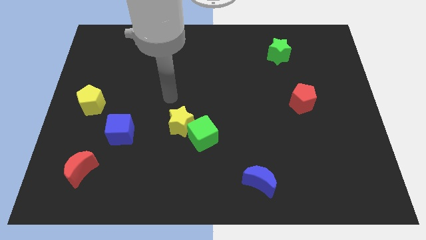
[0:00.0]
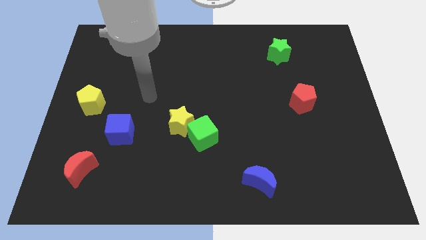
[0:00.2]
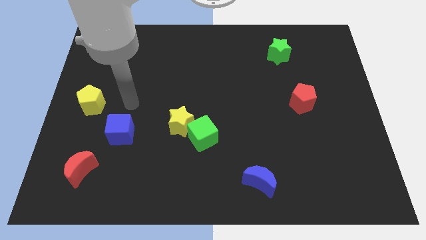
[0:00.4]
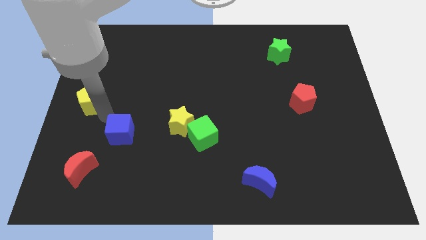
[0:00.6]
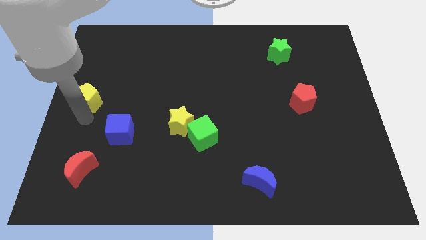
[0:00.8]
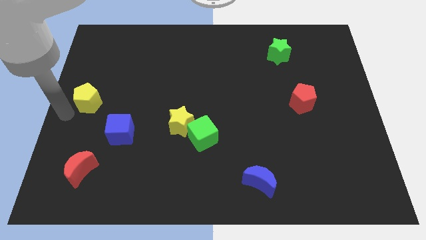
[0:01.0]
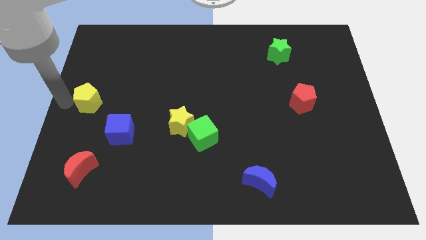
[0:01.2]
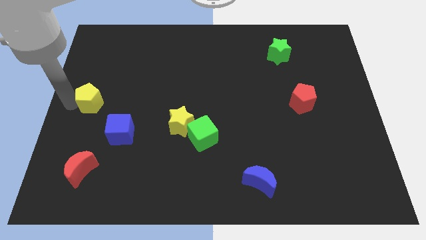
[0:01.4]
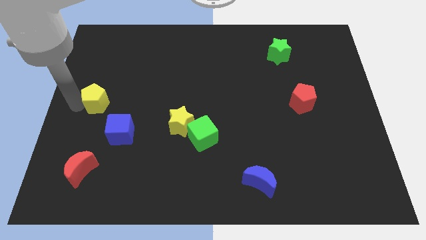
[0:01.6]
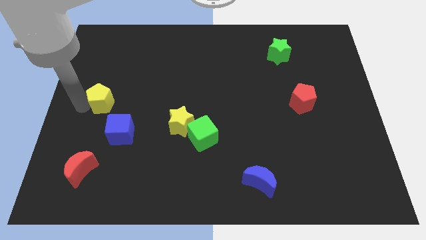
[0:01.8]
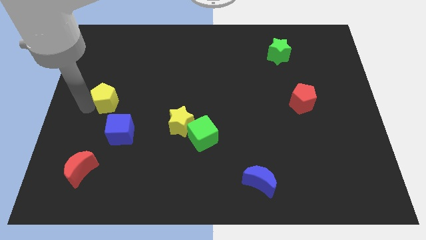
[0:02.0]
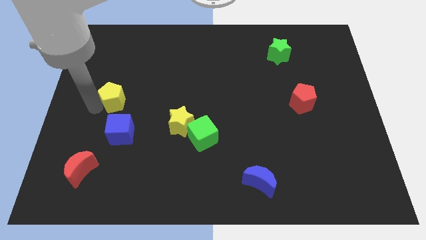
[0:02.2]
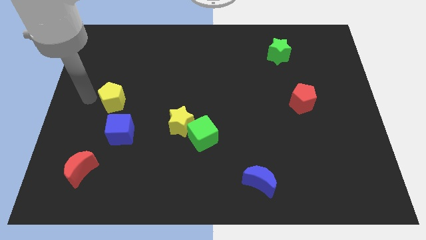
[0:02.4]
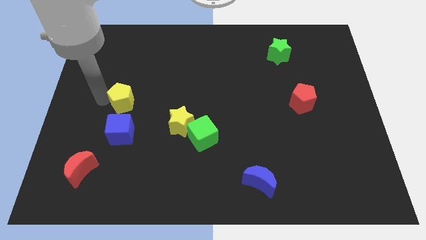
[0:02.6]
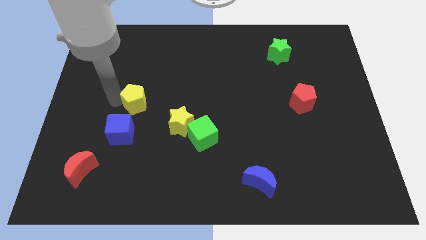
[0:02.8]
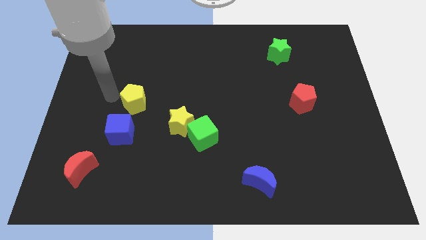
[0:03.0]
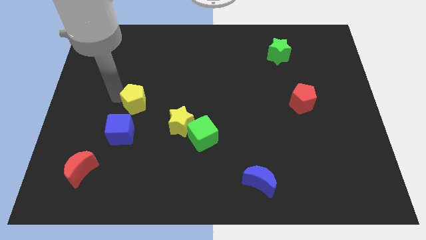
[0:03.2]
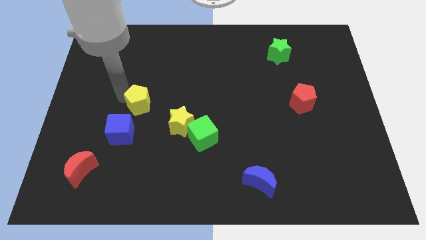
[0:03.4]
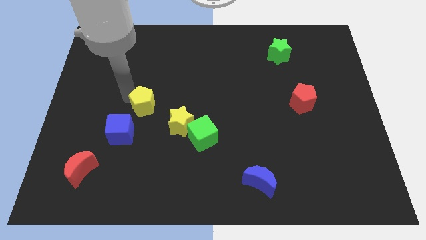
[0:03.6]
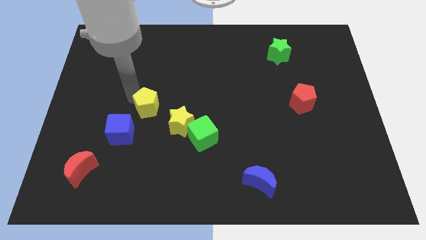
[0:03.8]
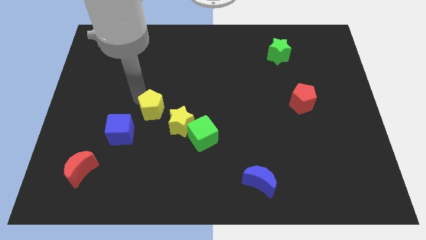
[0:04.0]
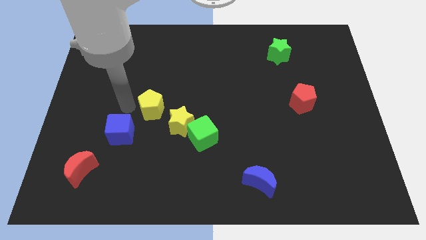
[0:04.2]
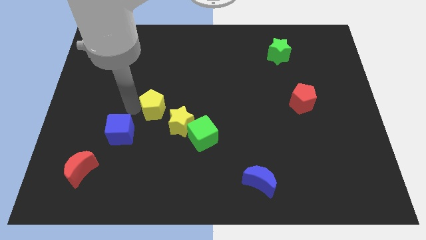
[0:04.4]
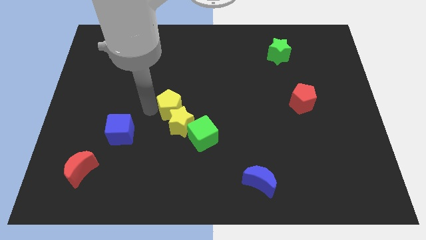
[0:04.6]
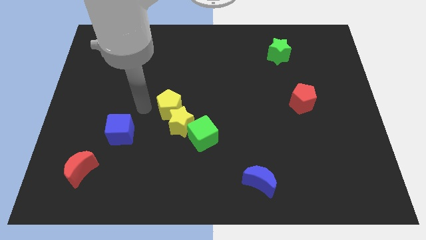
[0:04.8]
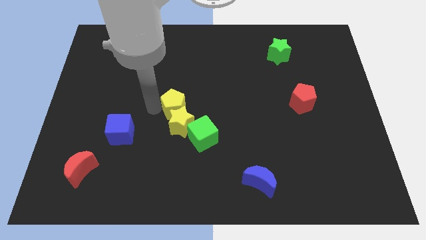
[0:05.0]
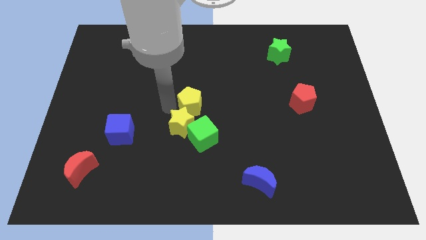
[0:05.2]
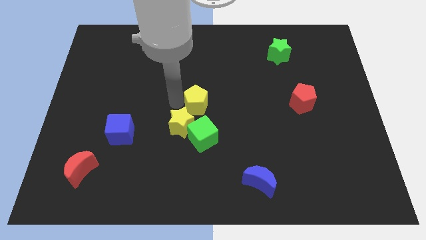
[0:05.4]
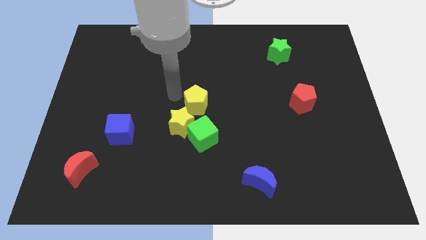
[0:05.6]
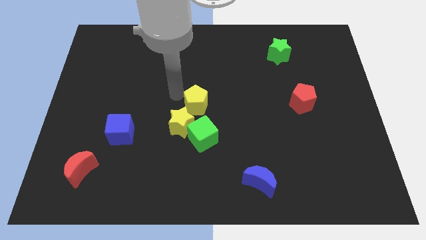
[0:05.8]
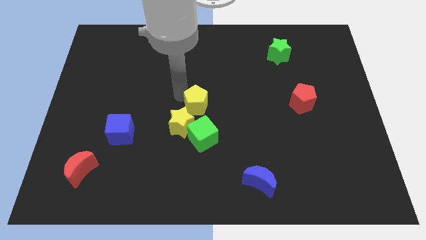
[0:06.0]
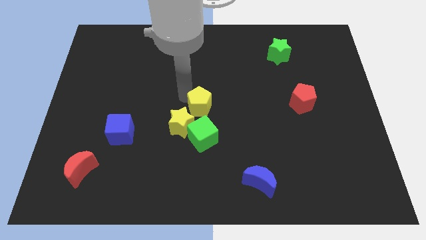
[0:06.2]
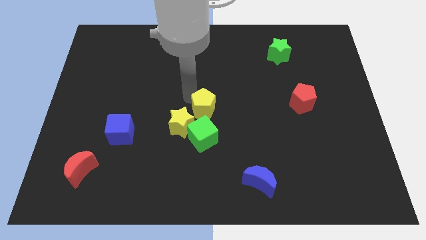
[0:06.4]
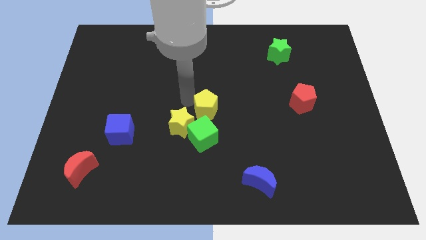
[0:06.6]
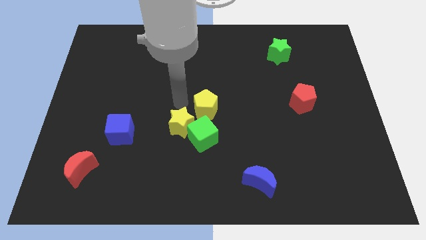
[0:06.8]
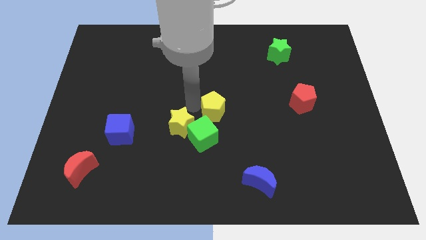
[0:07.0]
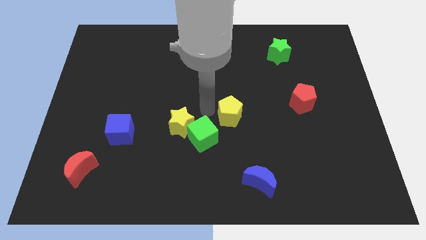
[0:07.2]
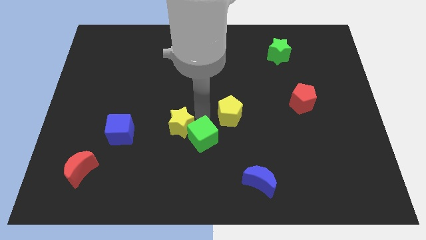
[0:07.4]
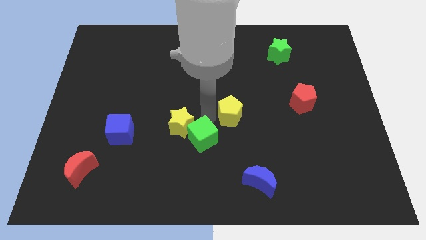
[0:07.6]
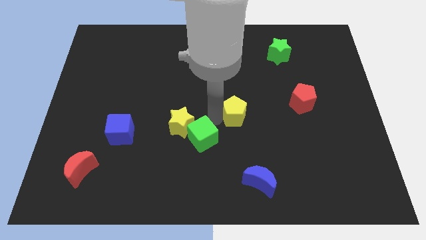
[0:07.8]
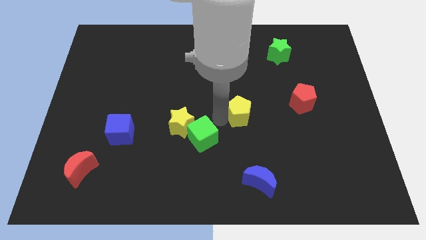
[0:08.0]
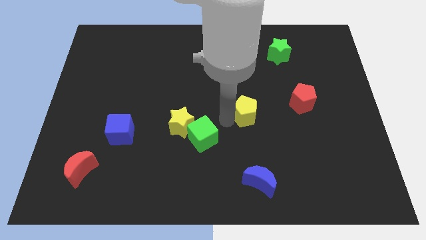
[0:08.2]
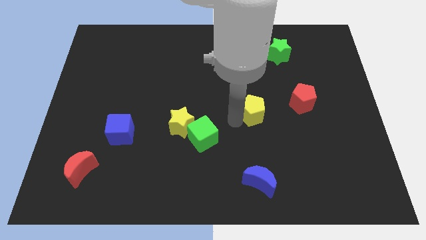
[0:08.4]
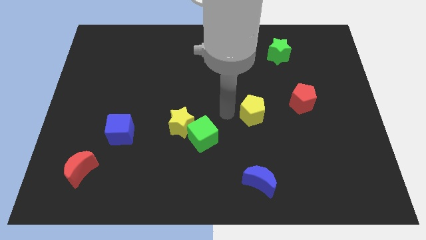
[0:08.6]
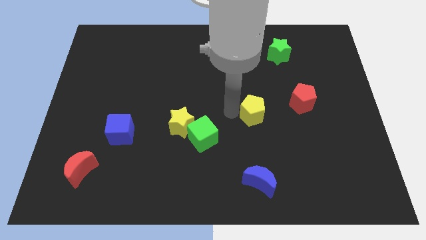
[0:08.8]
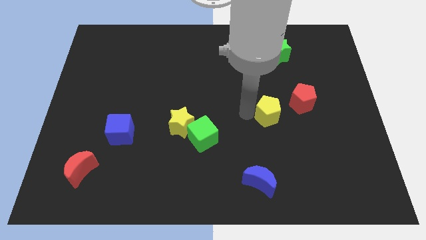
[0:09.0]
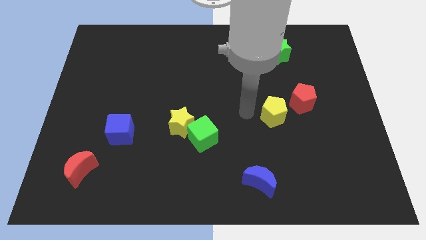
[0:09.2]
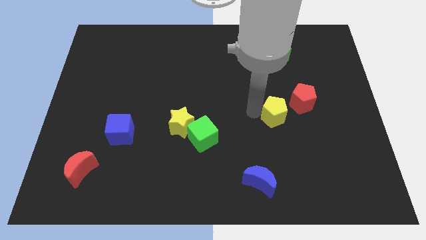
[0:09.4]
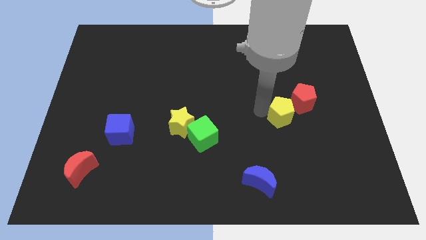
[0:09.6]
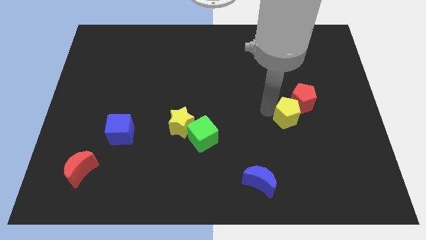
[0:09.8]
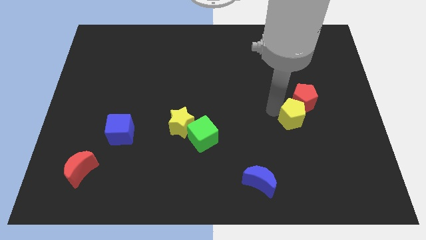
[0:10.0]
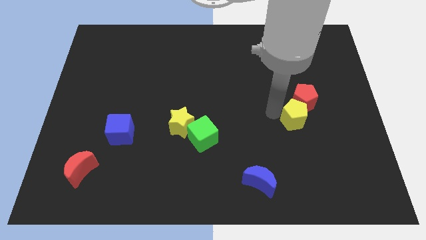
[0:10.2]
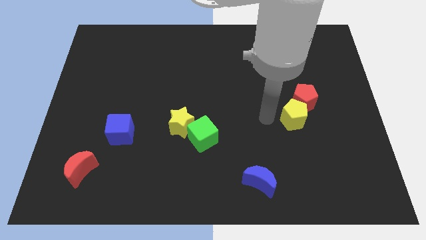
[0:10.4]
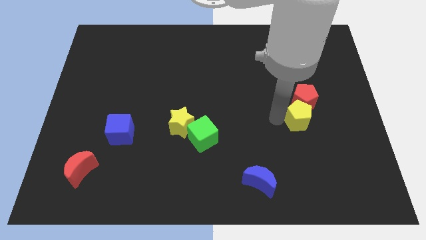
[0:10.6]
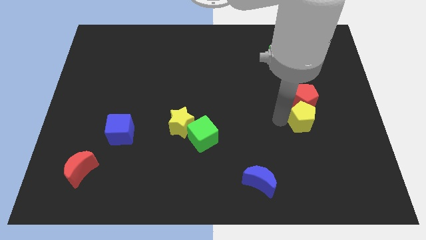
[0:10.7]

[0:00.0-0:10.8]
put the yellow pentagon diagonally down and to the right of the red pentagon

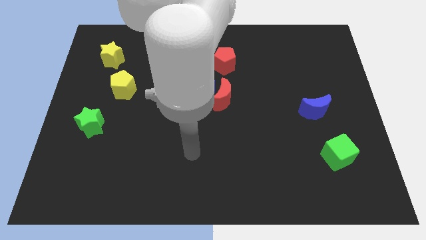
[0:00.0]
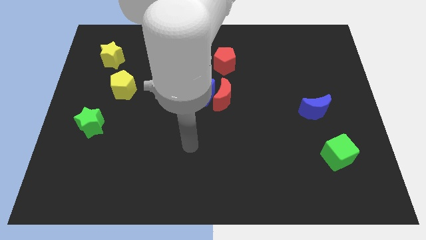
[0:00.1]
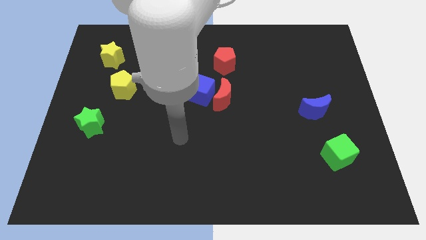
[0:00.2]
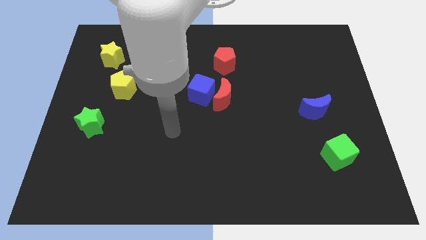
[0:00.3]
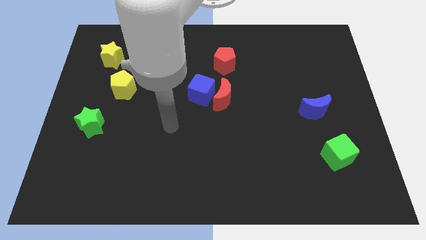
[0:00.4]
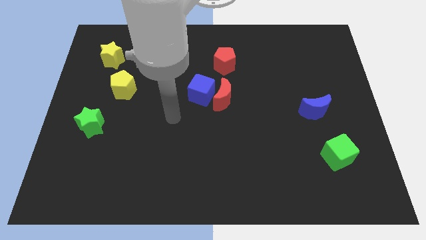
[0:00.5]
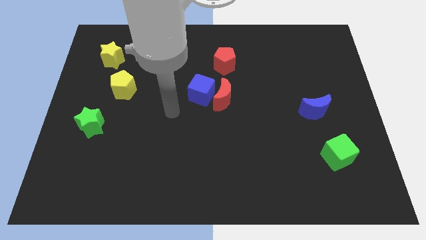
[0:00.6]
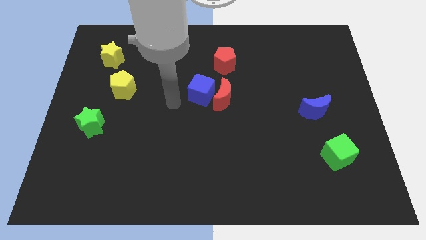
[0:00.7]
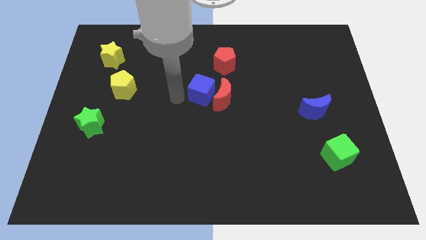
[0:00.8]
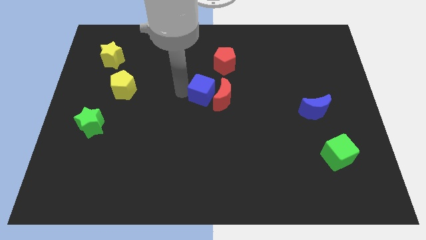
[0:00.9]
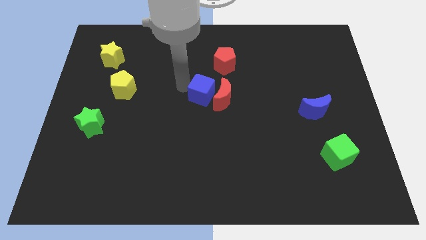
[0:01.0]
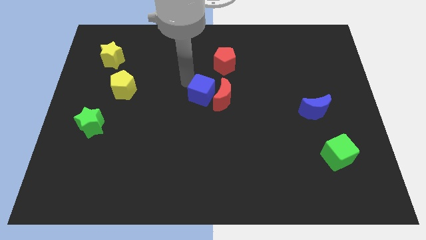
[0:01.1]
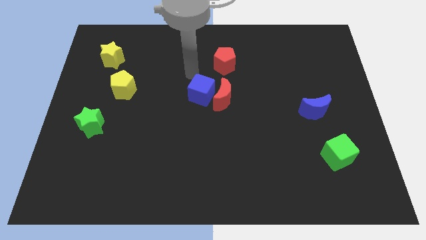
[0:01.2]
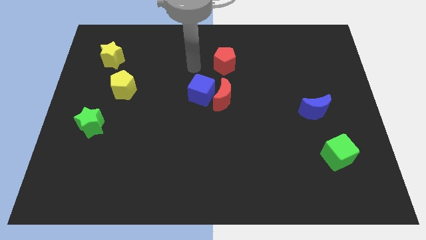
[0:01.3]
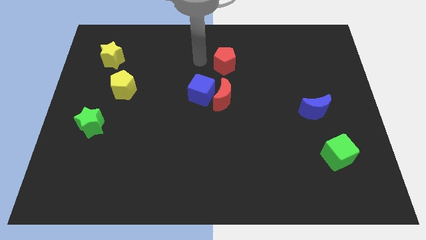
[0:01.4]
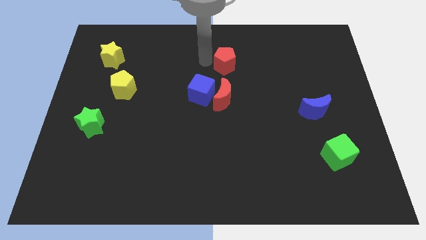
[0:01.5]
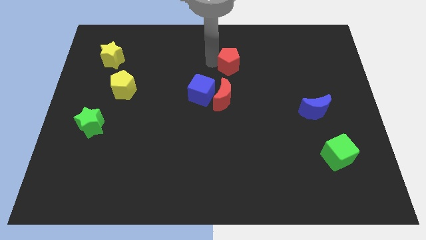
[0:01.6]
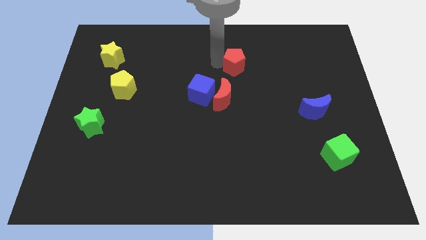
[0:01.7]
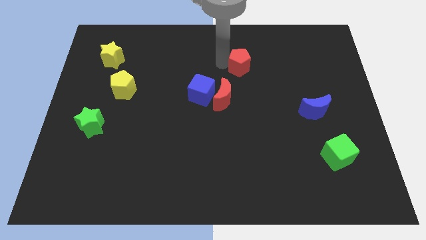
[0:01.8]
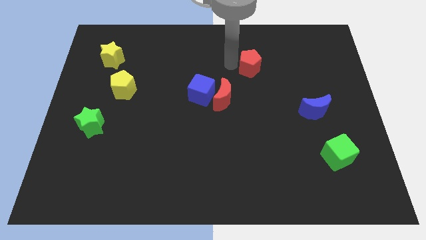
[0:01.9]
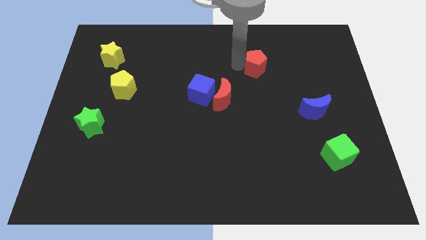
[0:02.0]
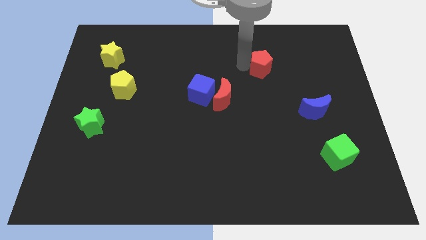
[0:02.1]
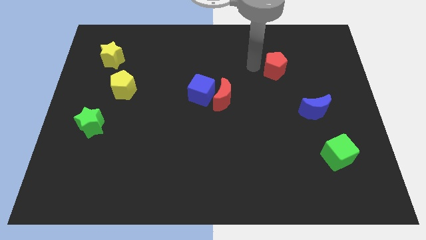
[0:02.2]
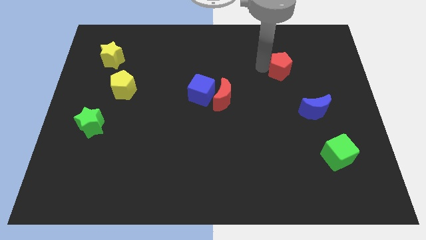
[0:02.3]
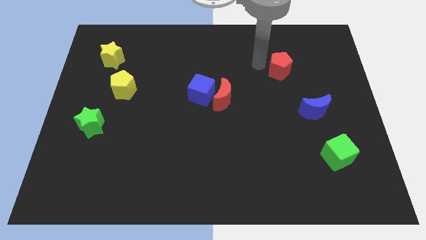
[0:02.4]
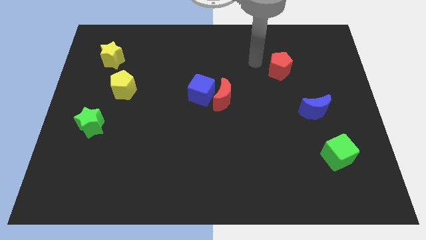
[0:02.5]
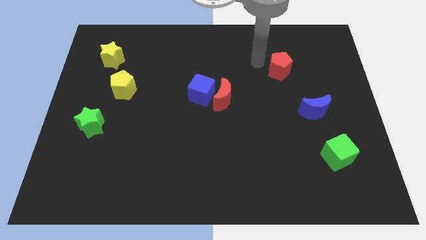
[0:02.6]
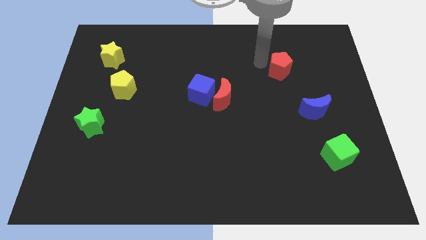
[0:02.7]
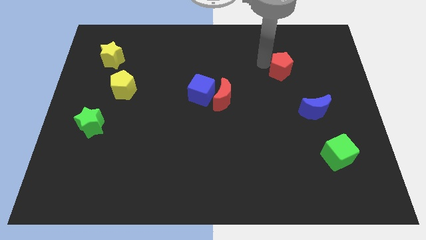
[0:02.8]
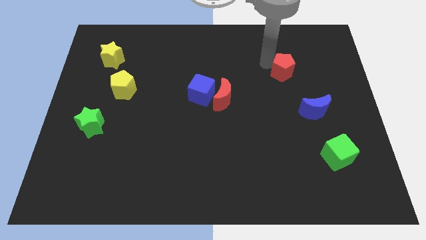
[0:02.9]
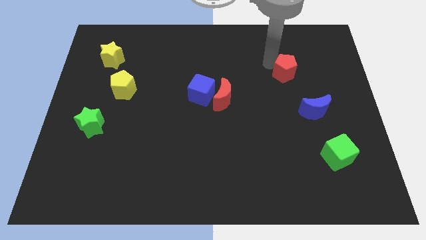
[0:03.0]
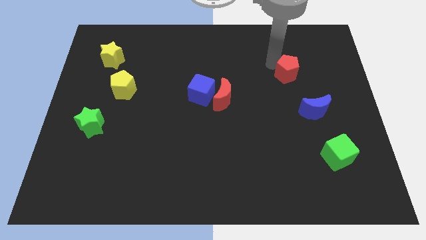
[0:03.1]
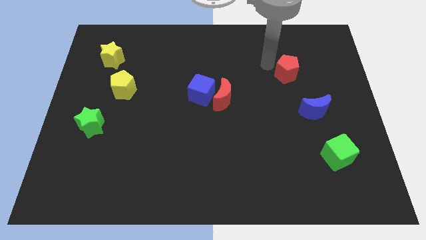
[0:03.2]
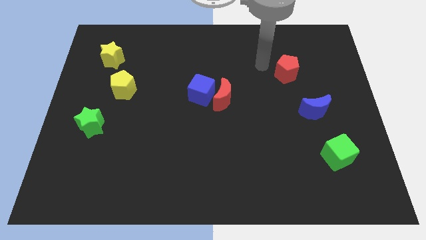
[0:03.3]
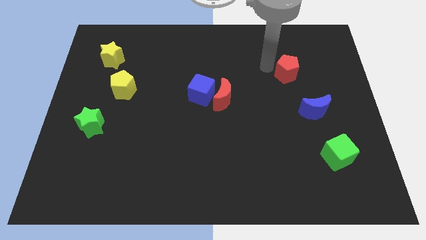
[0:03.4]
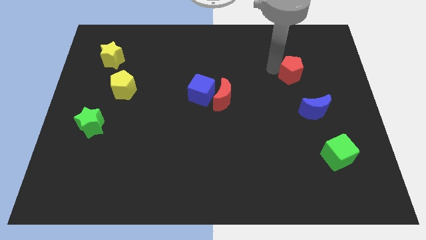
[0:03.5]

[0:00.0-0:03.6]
put the red pentagon to the top of the blue moon
